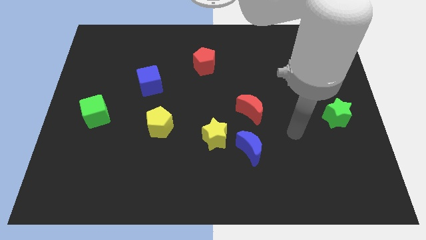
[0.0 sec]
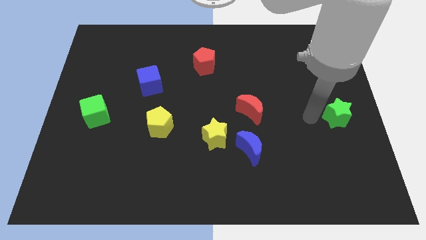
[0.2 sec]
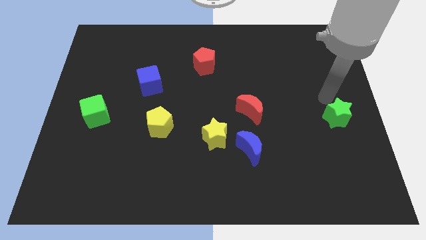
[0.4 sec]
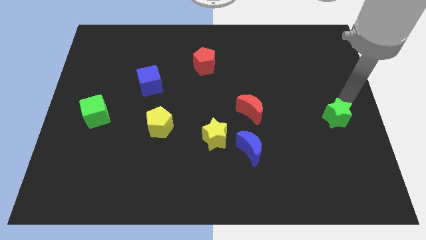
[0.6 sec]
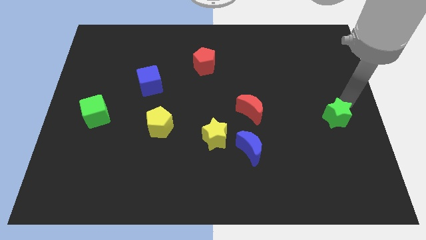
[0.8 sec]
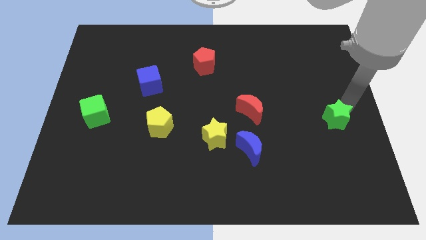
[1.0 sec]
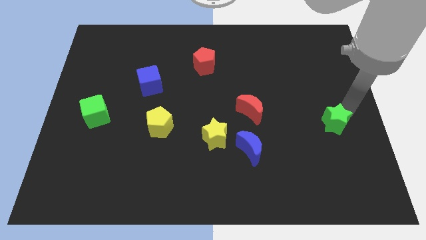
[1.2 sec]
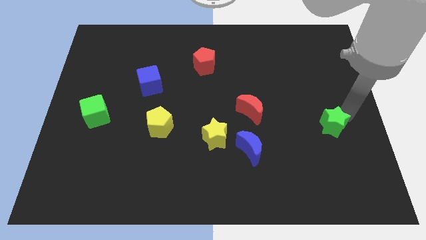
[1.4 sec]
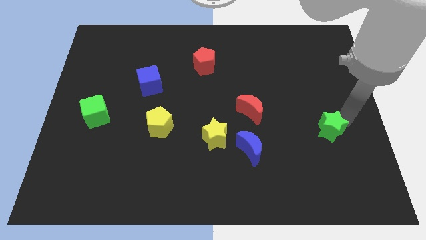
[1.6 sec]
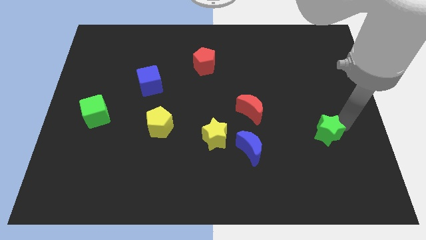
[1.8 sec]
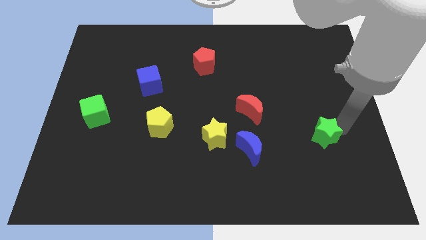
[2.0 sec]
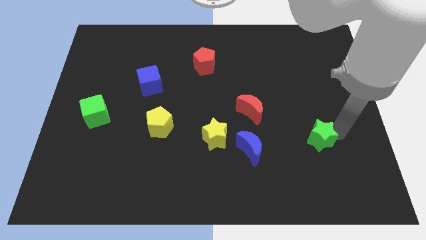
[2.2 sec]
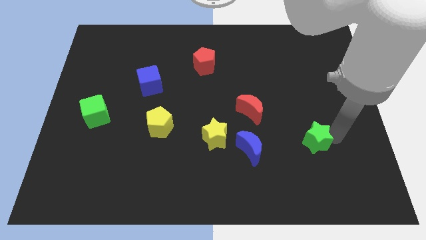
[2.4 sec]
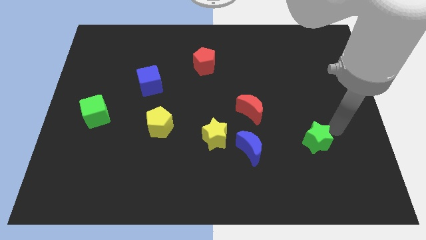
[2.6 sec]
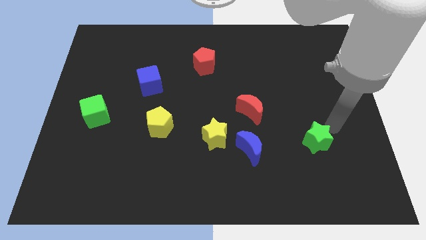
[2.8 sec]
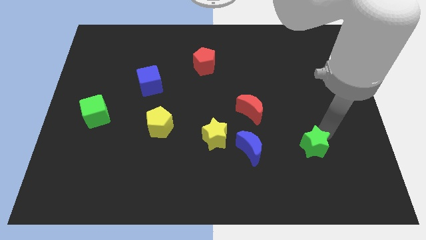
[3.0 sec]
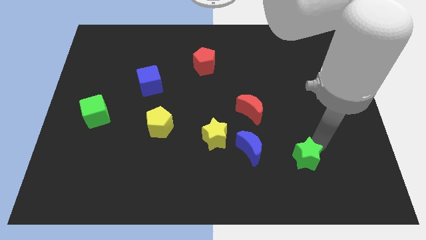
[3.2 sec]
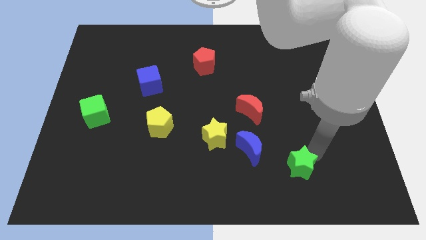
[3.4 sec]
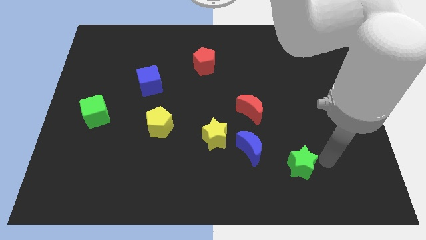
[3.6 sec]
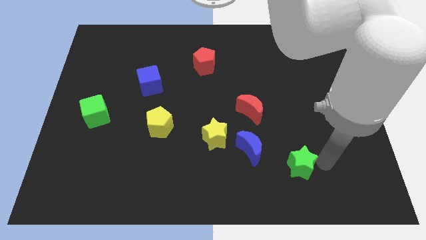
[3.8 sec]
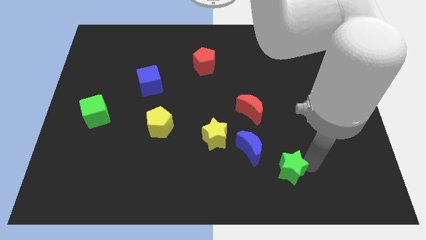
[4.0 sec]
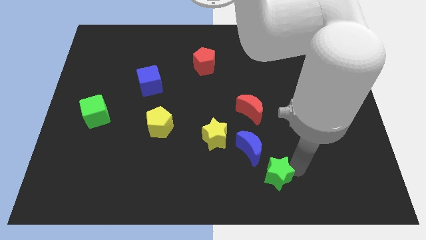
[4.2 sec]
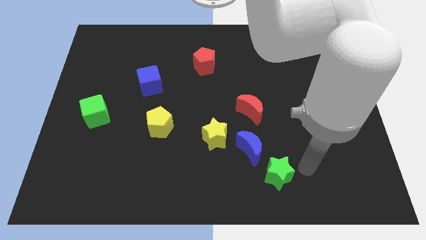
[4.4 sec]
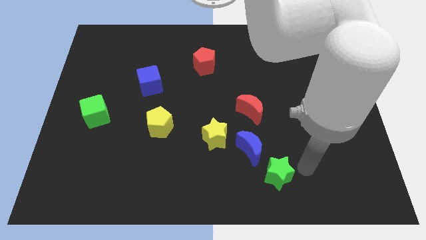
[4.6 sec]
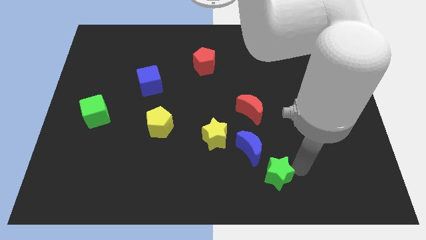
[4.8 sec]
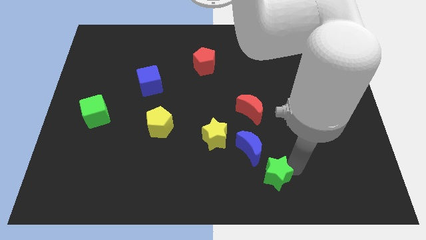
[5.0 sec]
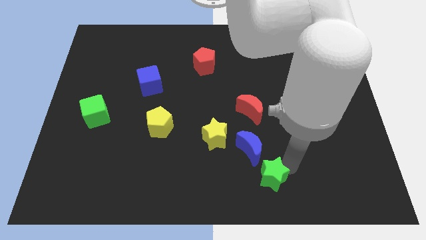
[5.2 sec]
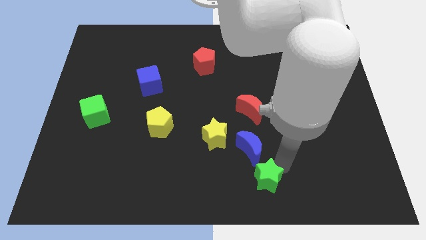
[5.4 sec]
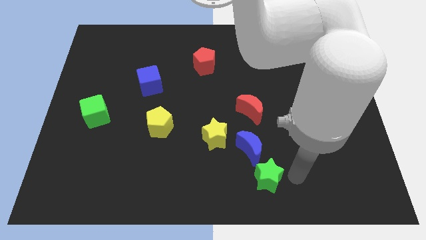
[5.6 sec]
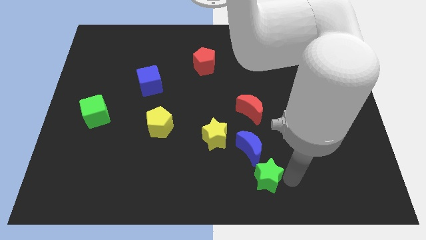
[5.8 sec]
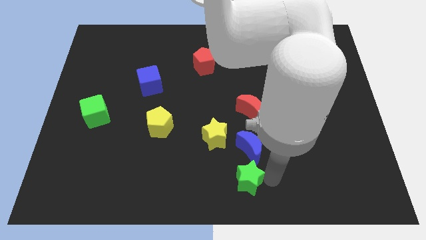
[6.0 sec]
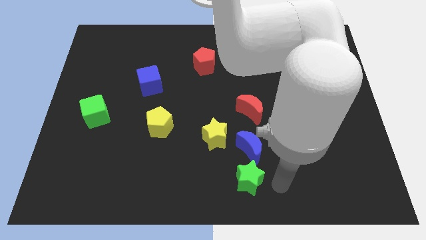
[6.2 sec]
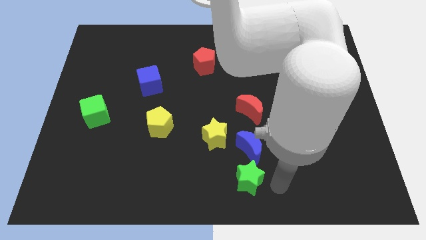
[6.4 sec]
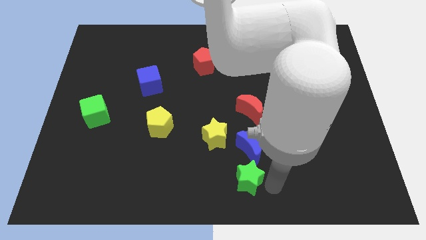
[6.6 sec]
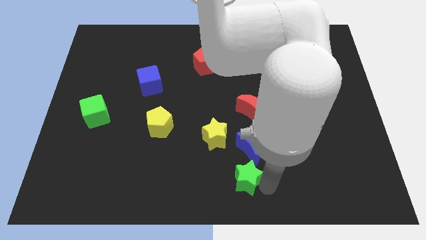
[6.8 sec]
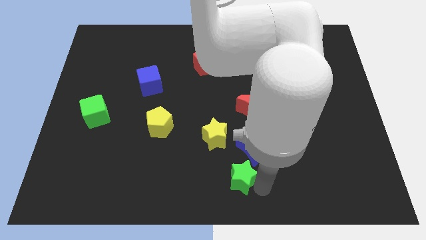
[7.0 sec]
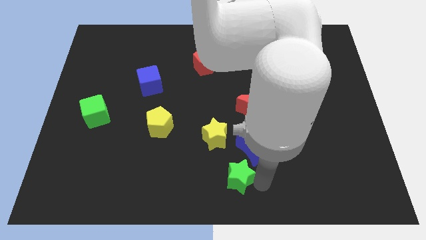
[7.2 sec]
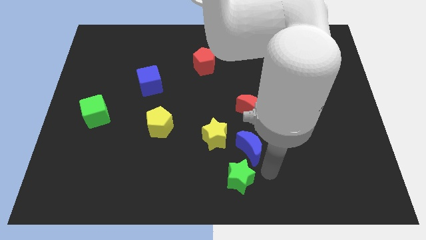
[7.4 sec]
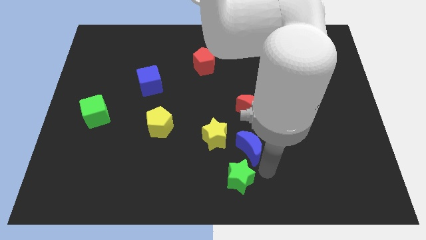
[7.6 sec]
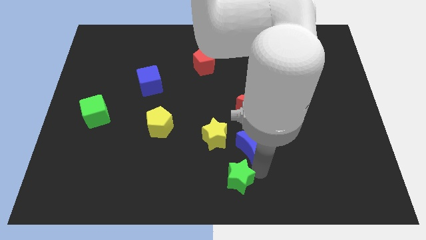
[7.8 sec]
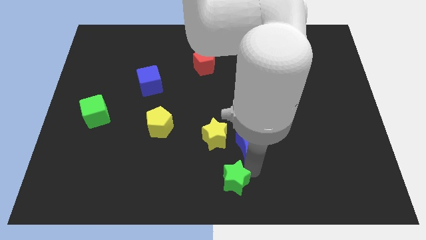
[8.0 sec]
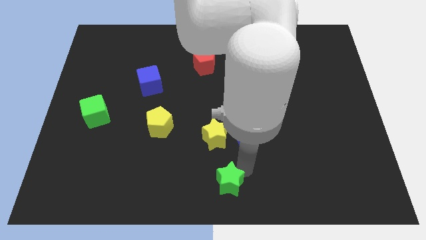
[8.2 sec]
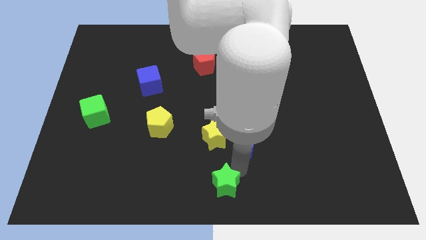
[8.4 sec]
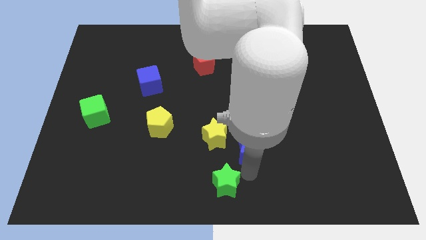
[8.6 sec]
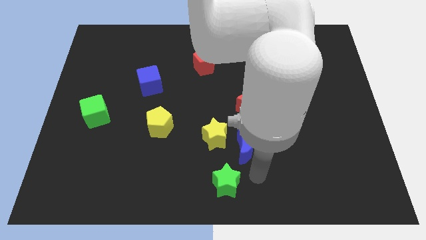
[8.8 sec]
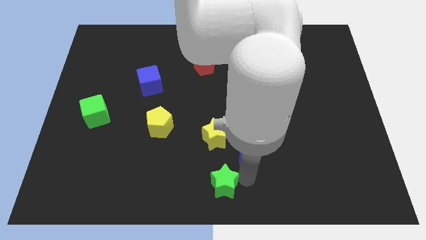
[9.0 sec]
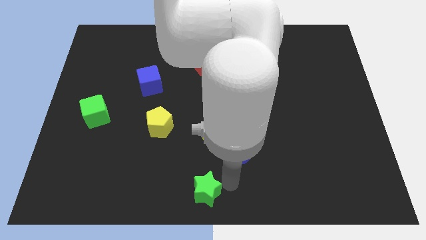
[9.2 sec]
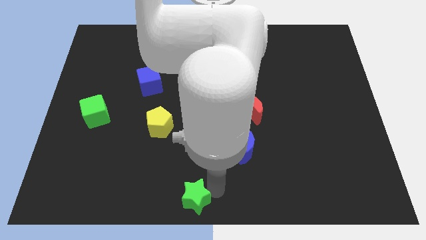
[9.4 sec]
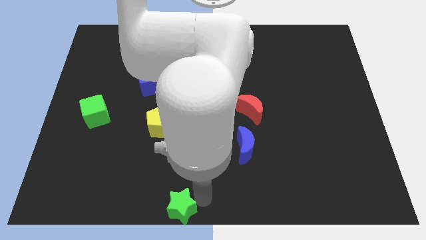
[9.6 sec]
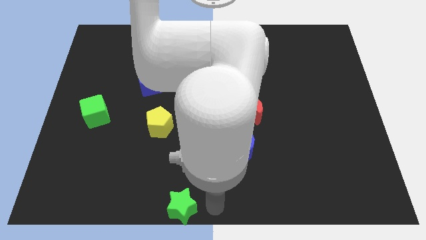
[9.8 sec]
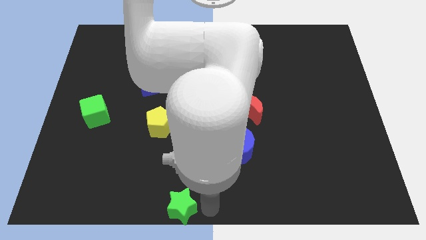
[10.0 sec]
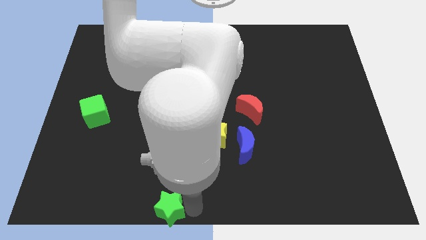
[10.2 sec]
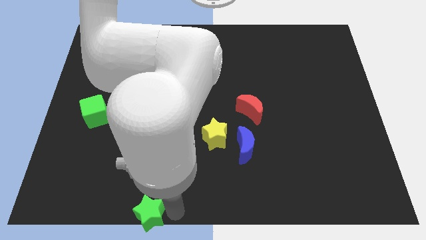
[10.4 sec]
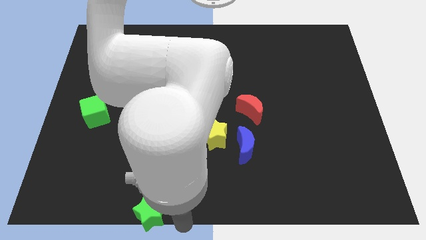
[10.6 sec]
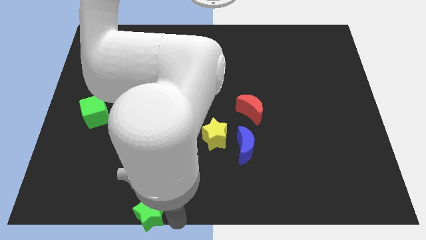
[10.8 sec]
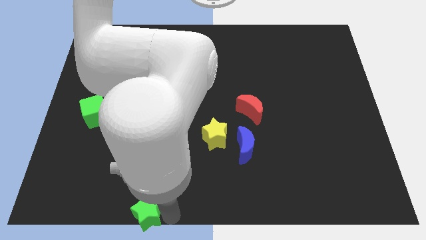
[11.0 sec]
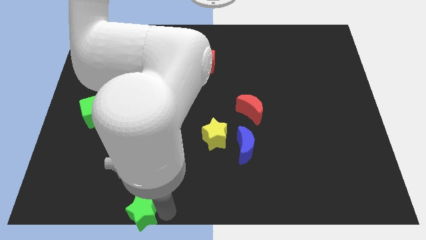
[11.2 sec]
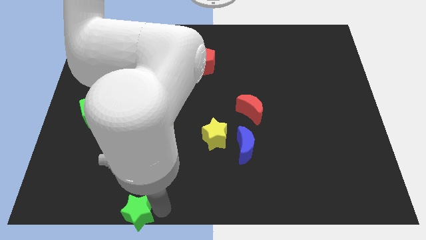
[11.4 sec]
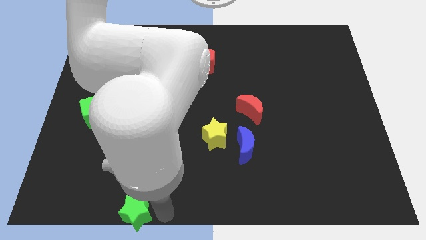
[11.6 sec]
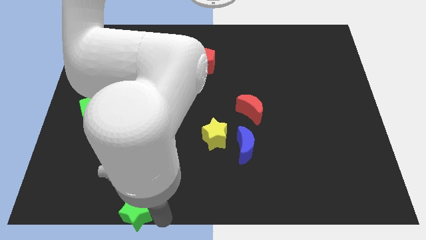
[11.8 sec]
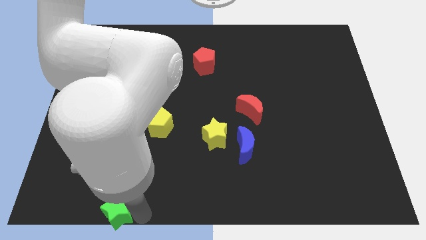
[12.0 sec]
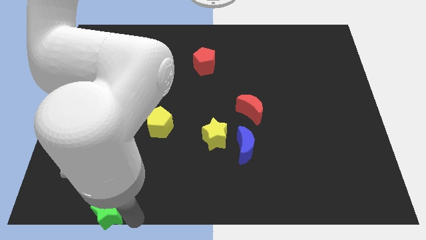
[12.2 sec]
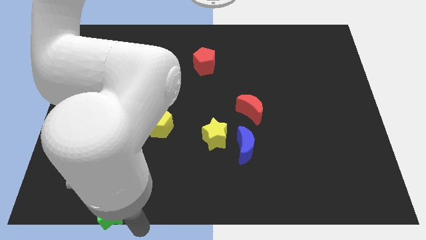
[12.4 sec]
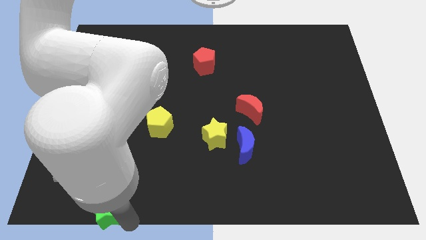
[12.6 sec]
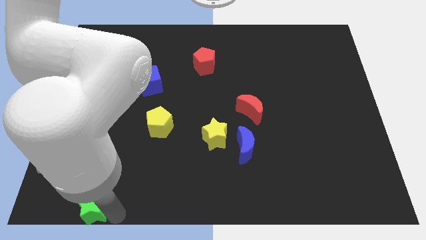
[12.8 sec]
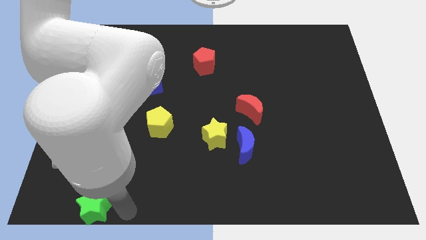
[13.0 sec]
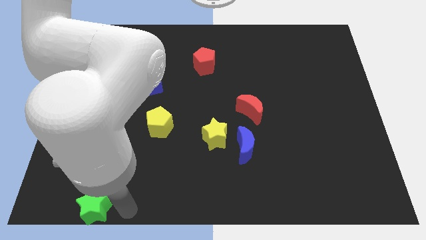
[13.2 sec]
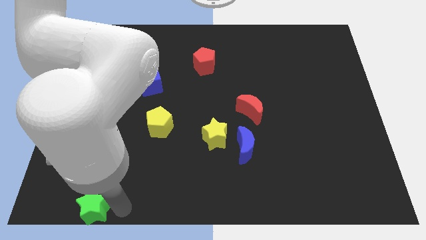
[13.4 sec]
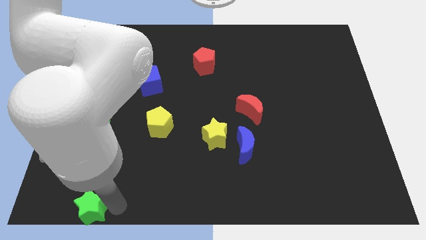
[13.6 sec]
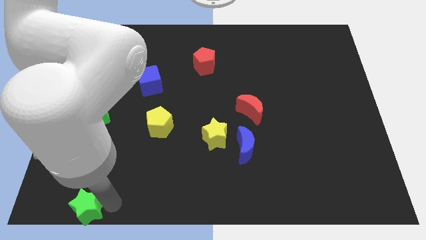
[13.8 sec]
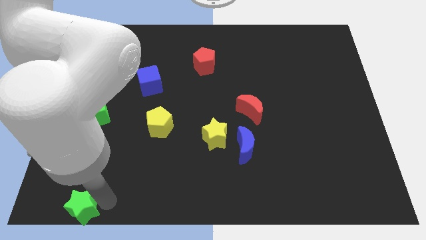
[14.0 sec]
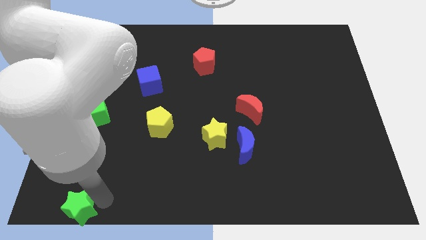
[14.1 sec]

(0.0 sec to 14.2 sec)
push the green star to the bottom left corner
